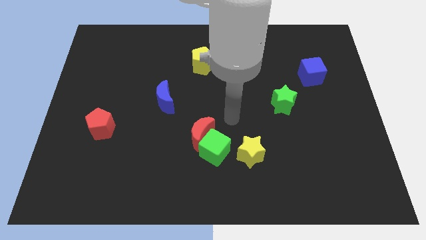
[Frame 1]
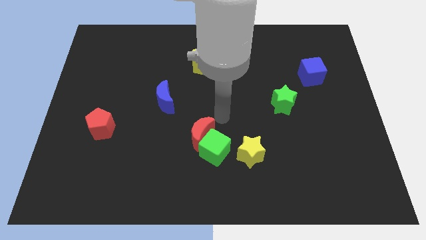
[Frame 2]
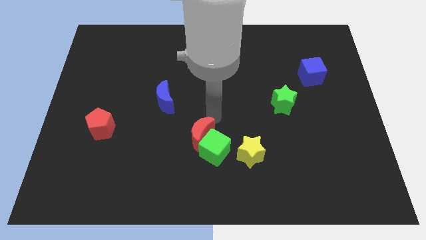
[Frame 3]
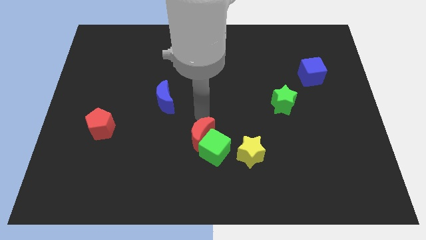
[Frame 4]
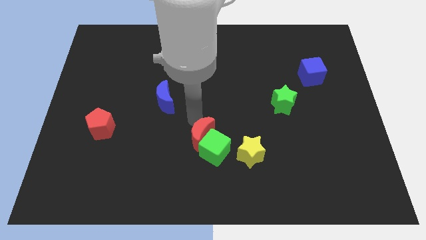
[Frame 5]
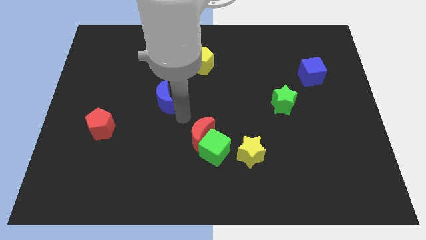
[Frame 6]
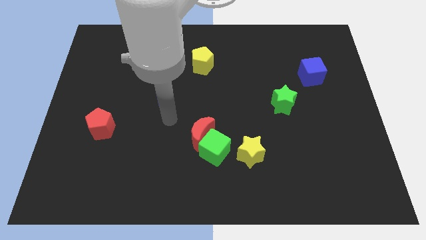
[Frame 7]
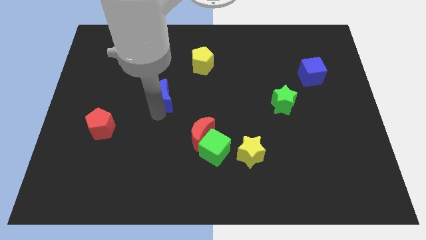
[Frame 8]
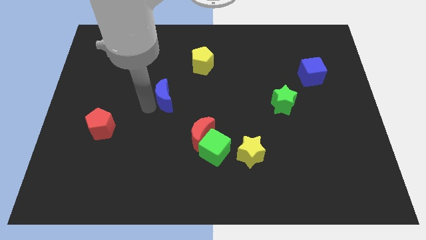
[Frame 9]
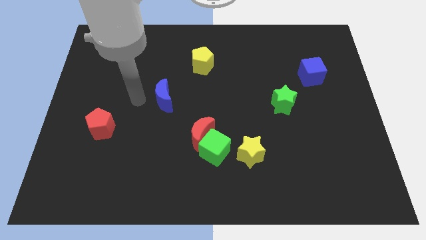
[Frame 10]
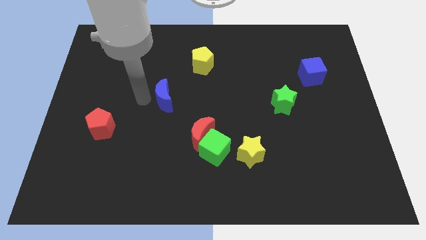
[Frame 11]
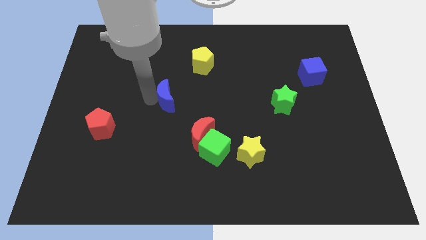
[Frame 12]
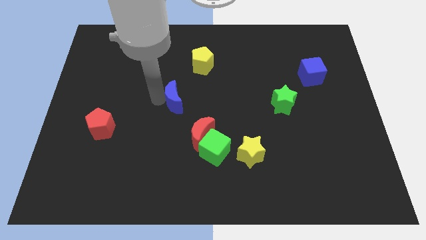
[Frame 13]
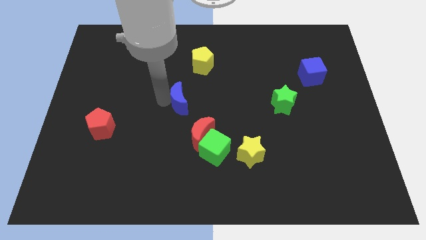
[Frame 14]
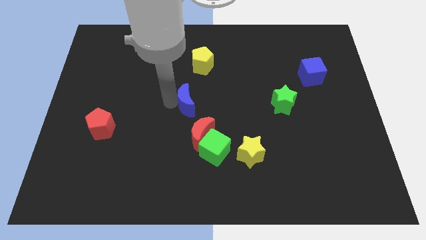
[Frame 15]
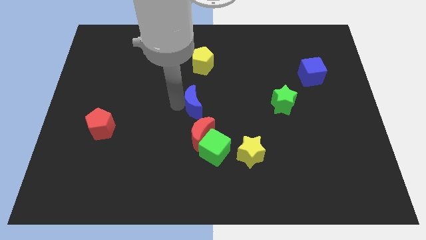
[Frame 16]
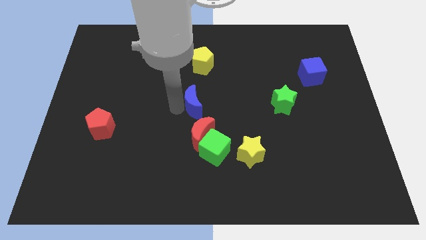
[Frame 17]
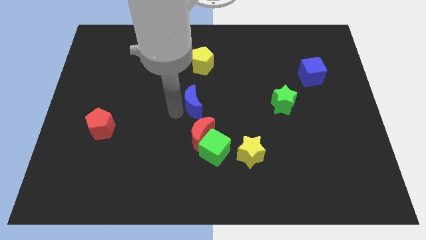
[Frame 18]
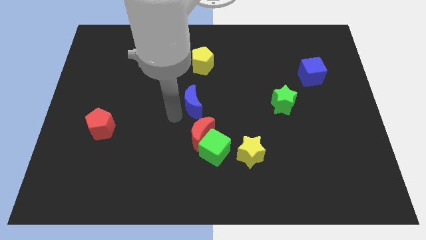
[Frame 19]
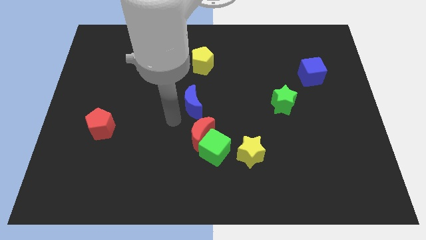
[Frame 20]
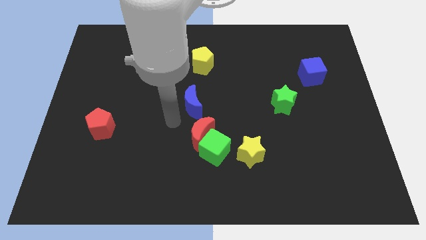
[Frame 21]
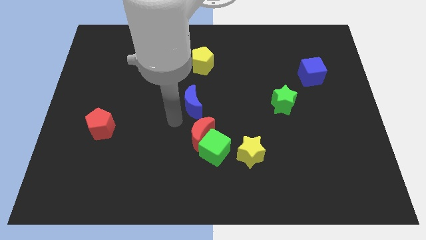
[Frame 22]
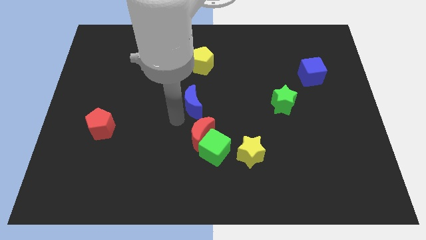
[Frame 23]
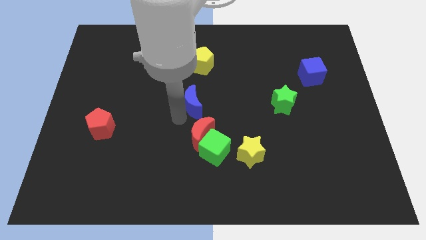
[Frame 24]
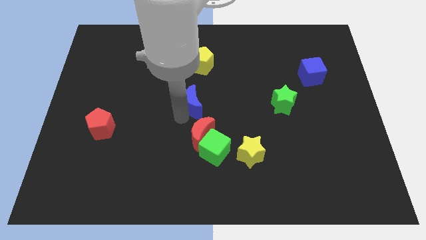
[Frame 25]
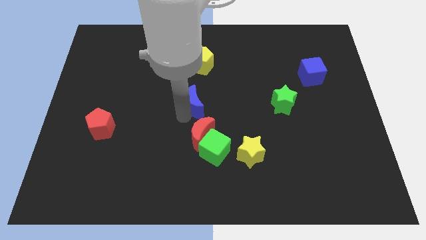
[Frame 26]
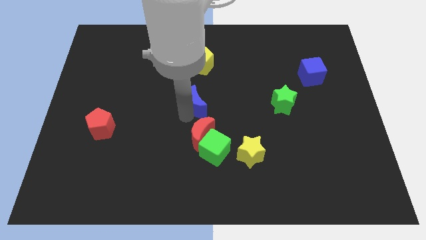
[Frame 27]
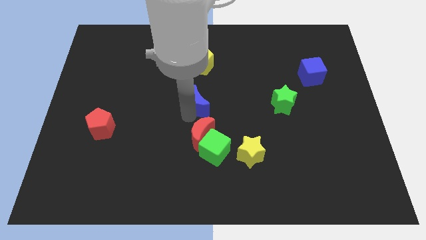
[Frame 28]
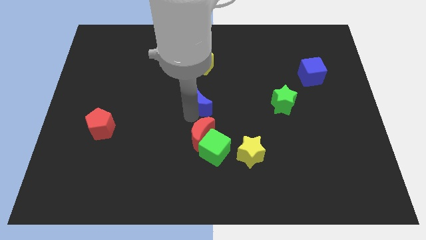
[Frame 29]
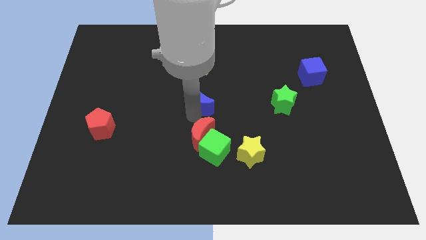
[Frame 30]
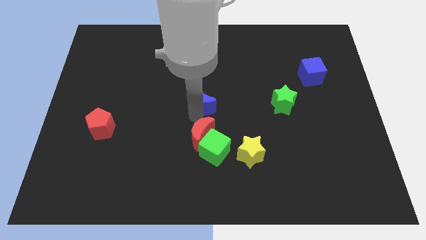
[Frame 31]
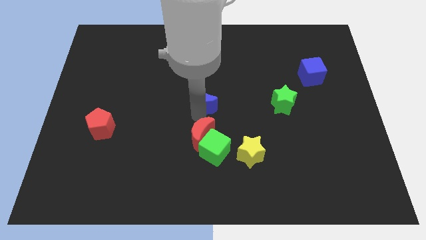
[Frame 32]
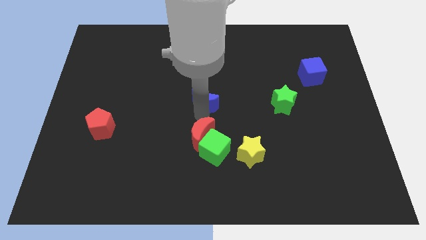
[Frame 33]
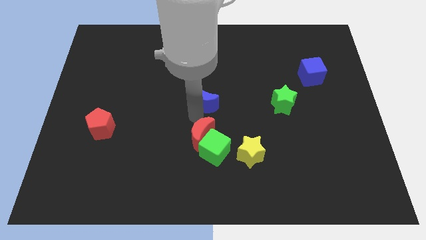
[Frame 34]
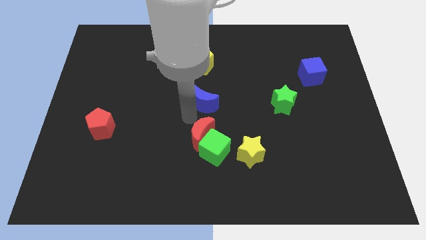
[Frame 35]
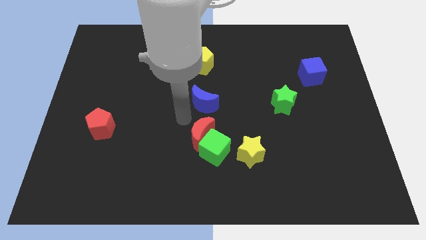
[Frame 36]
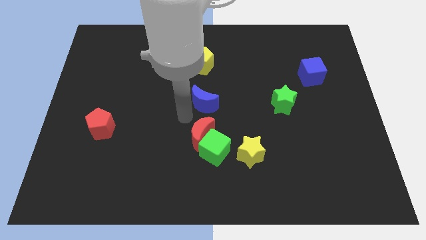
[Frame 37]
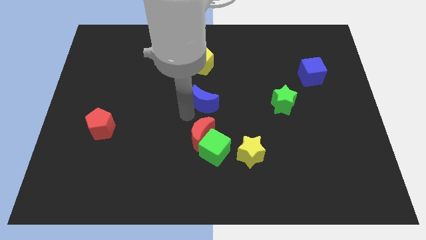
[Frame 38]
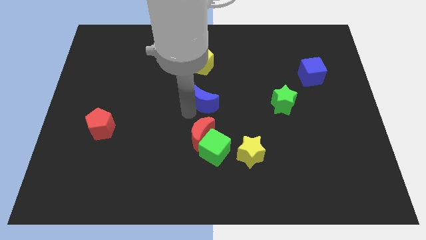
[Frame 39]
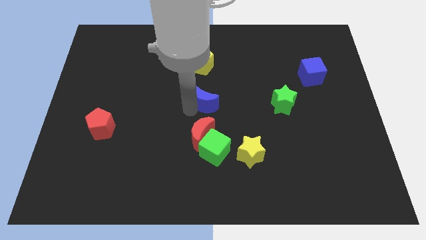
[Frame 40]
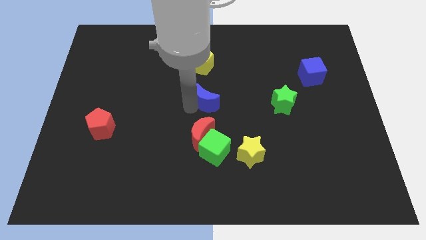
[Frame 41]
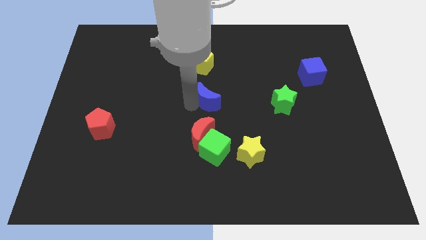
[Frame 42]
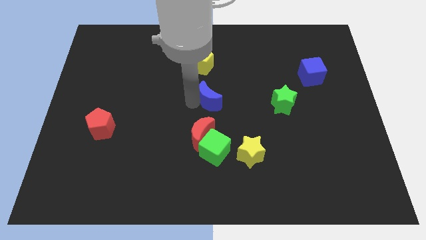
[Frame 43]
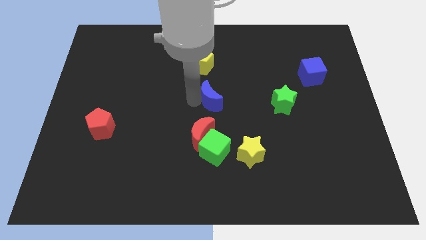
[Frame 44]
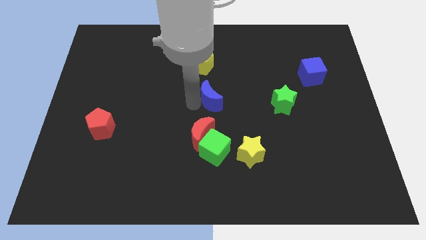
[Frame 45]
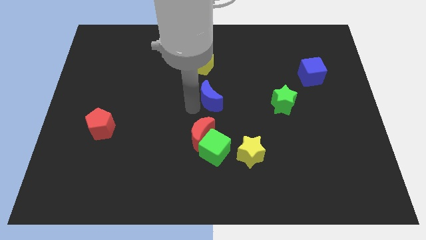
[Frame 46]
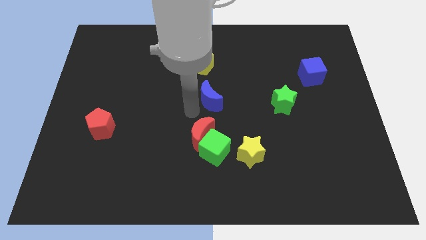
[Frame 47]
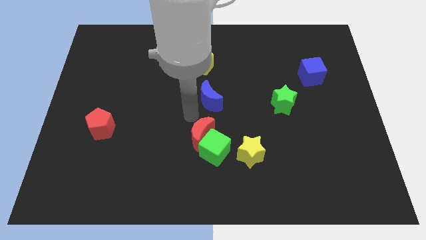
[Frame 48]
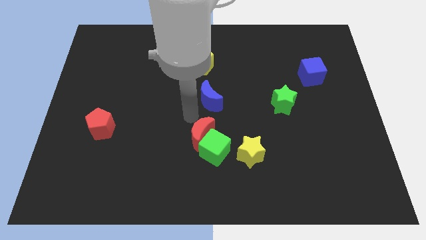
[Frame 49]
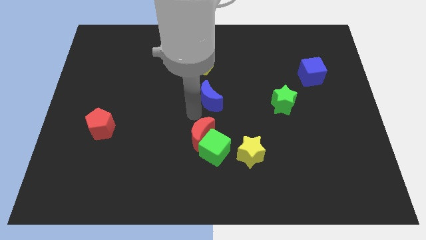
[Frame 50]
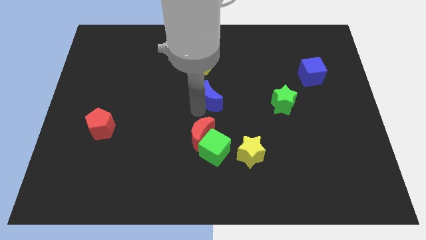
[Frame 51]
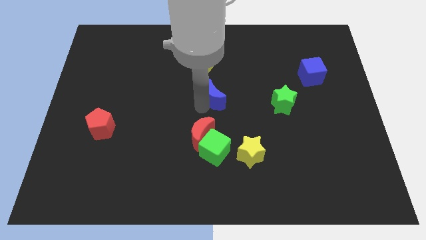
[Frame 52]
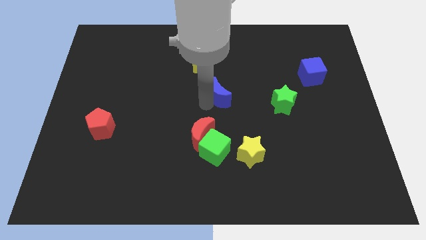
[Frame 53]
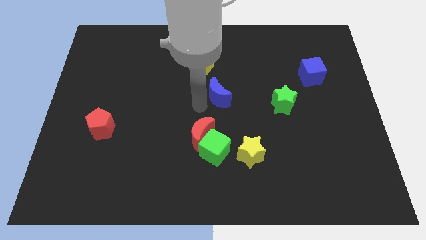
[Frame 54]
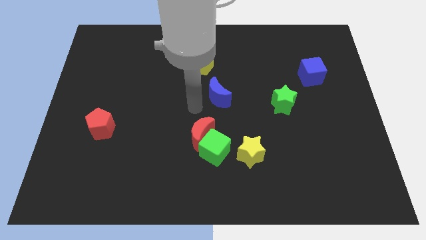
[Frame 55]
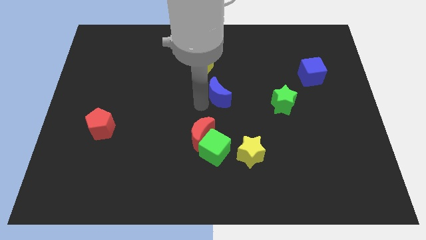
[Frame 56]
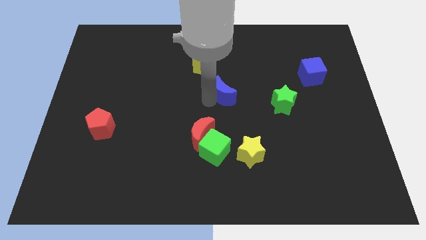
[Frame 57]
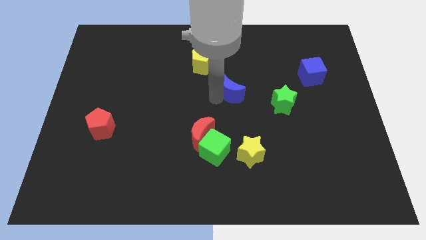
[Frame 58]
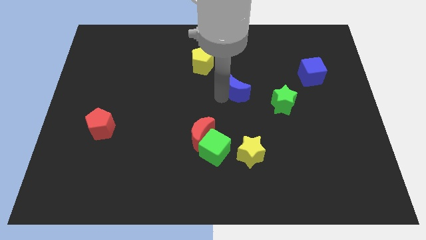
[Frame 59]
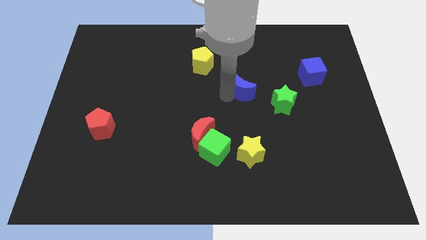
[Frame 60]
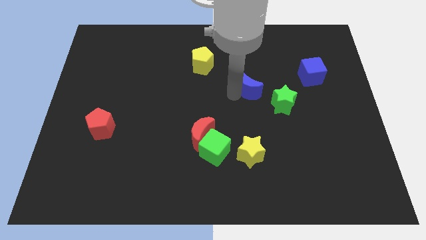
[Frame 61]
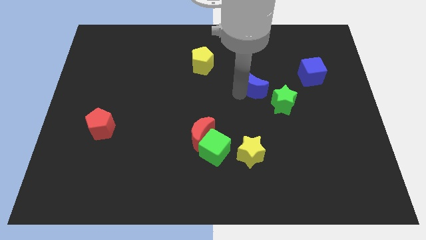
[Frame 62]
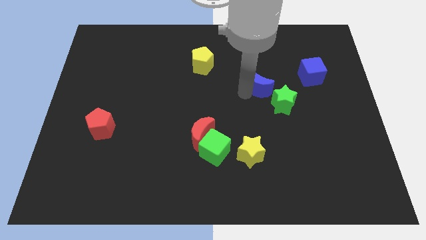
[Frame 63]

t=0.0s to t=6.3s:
push the blue moon just left of the blue cube

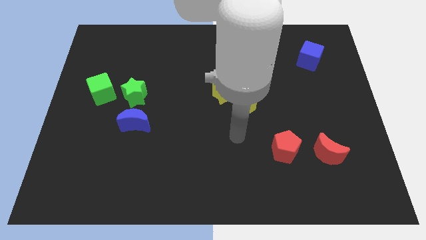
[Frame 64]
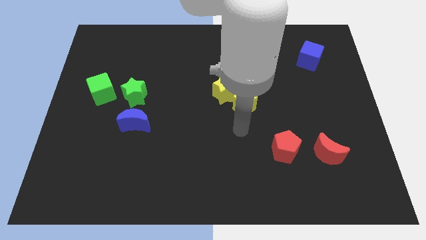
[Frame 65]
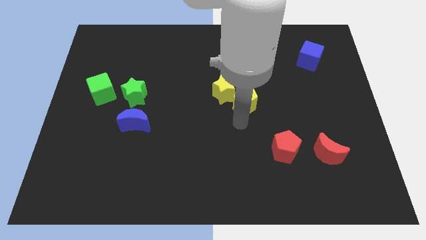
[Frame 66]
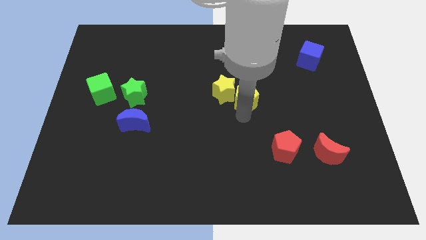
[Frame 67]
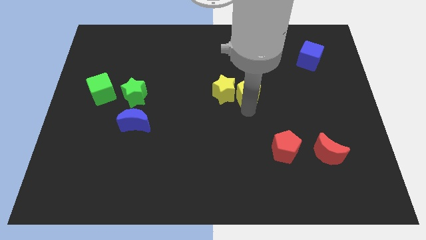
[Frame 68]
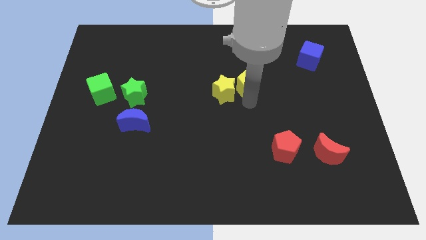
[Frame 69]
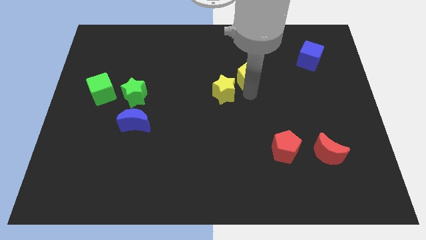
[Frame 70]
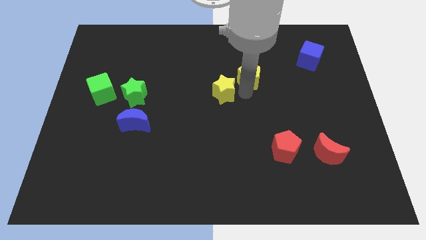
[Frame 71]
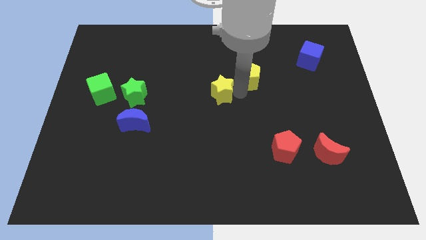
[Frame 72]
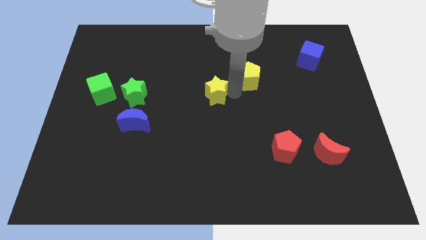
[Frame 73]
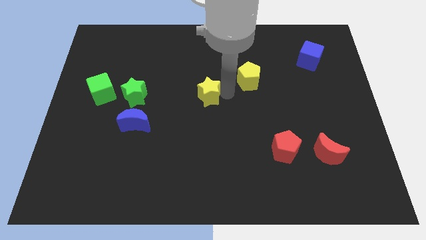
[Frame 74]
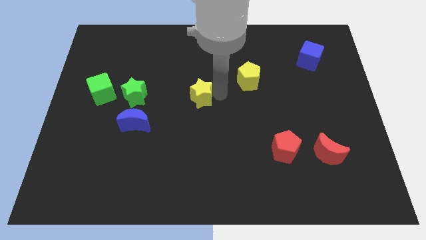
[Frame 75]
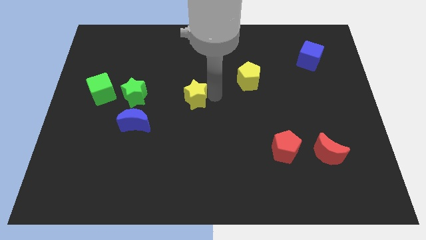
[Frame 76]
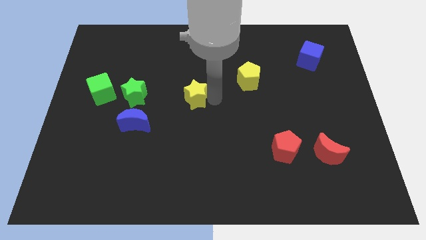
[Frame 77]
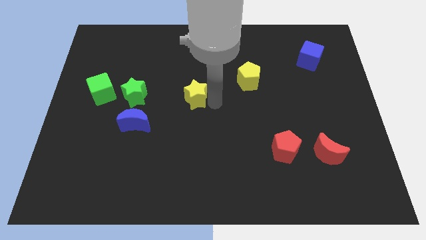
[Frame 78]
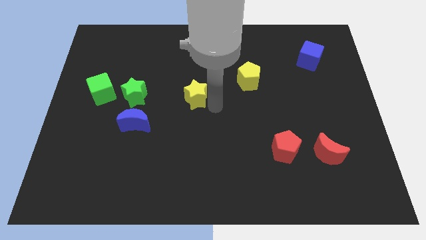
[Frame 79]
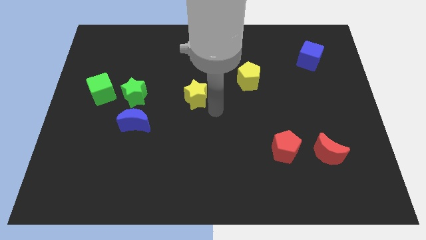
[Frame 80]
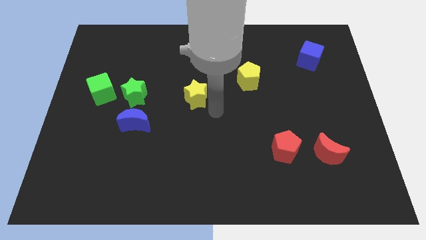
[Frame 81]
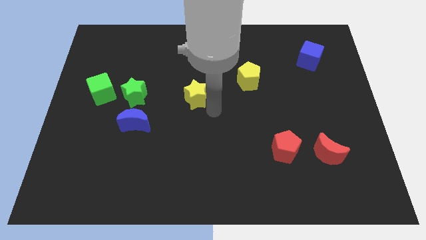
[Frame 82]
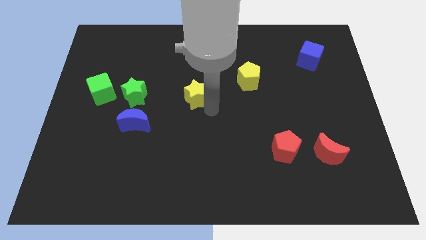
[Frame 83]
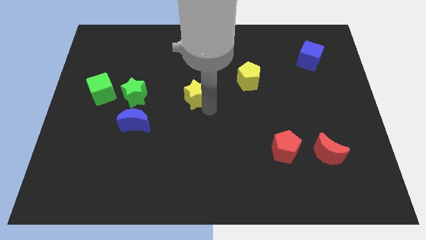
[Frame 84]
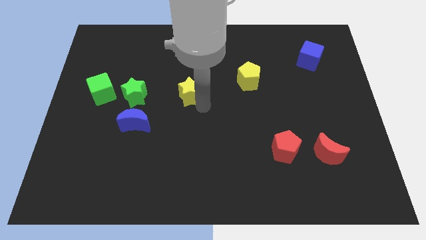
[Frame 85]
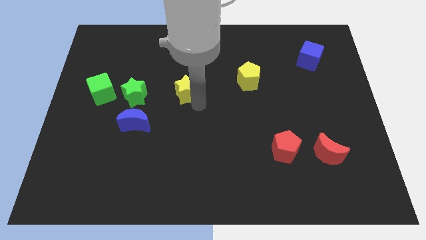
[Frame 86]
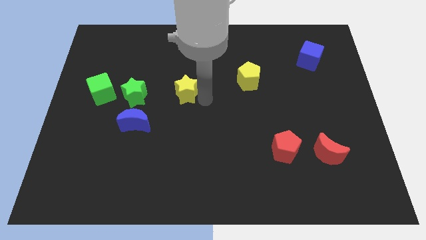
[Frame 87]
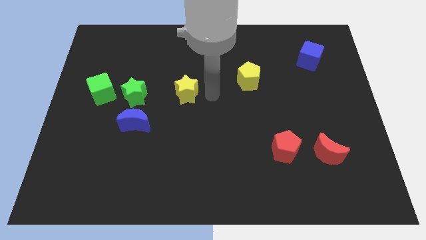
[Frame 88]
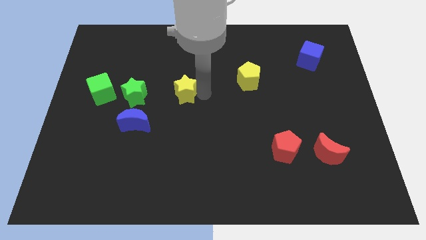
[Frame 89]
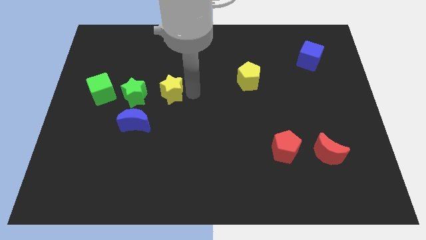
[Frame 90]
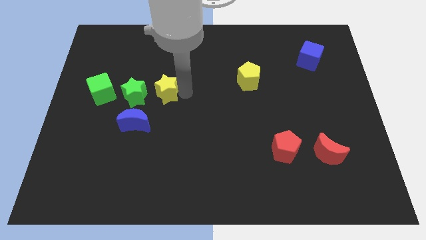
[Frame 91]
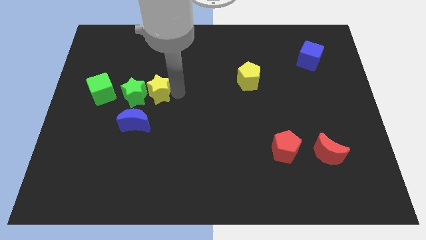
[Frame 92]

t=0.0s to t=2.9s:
slide the yellow star to the top side of the blue moon
